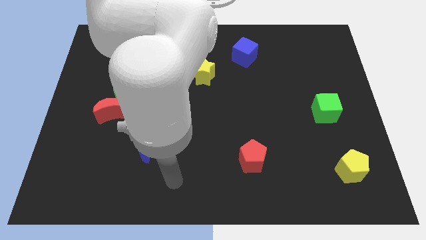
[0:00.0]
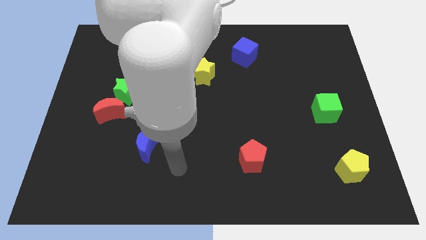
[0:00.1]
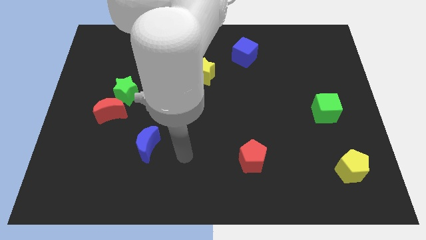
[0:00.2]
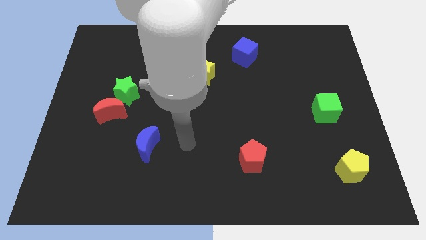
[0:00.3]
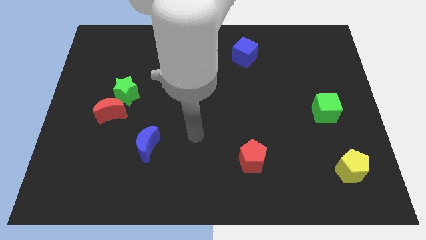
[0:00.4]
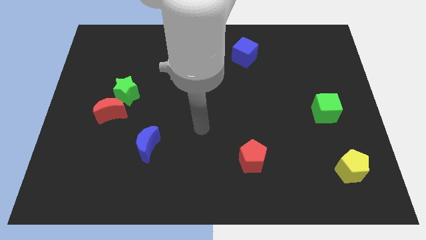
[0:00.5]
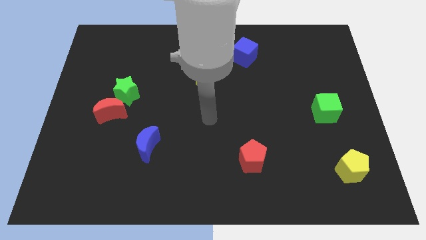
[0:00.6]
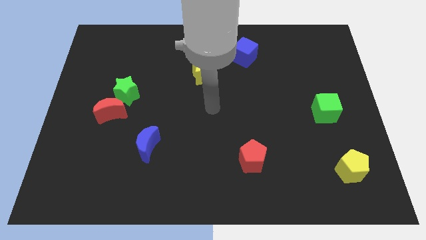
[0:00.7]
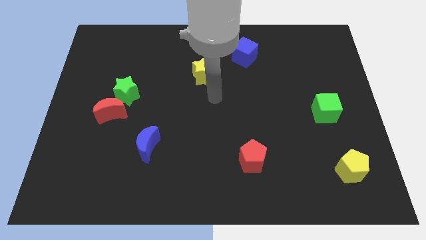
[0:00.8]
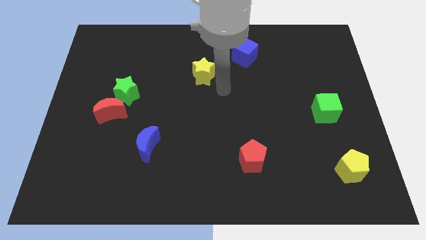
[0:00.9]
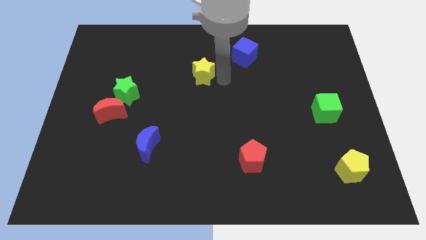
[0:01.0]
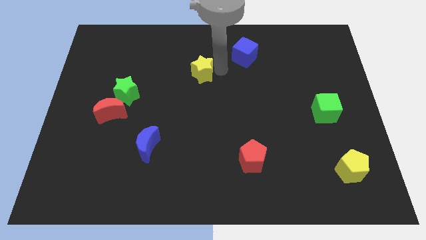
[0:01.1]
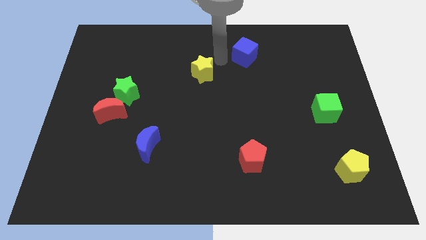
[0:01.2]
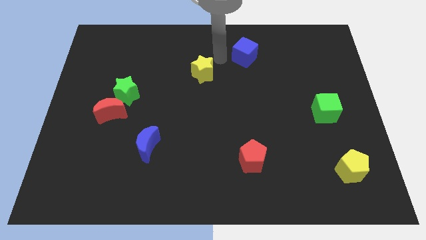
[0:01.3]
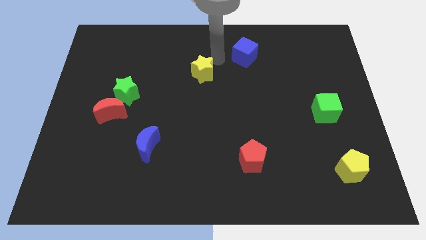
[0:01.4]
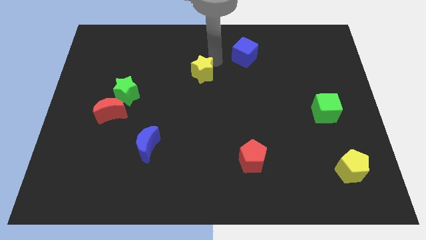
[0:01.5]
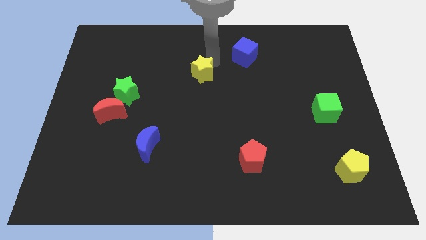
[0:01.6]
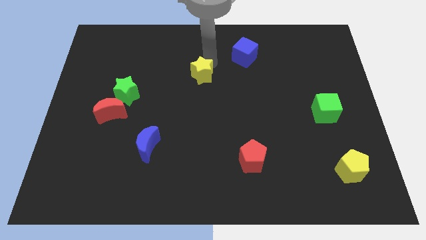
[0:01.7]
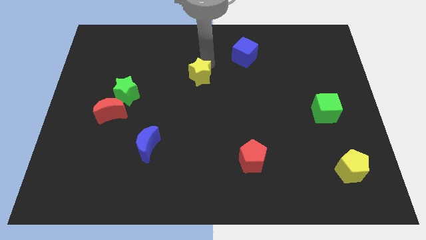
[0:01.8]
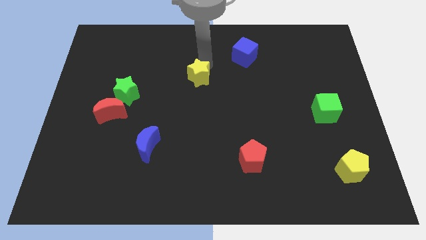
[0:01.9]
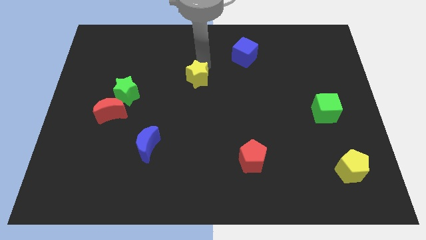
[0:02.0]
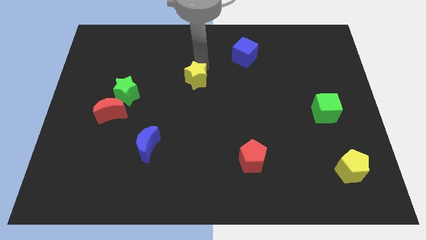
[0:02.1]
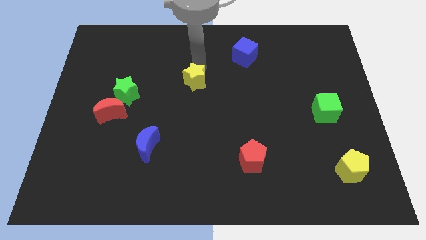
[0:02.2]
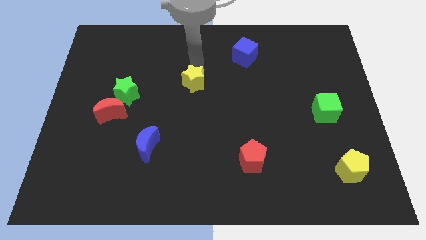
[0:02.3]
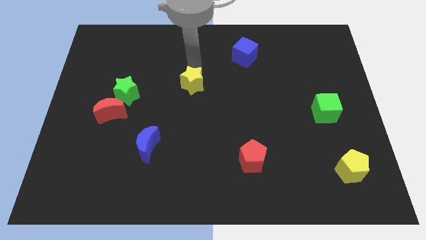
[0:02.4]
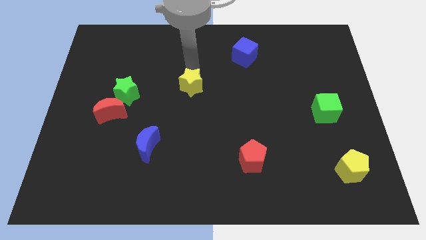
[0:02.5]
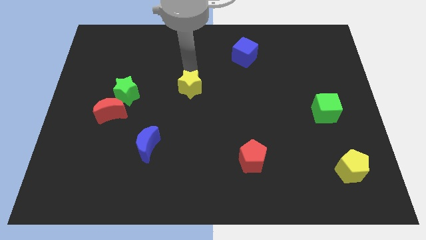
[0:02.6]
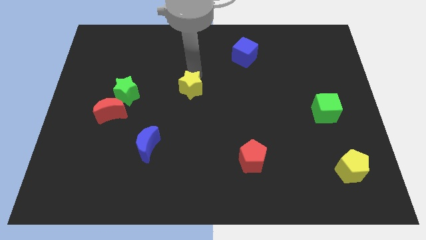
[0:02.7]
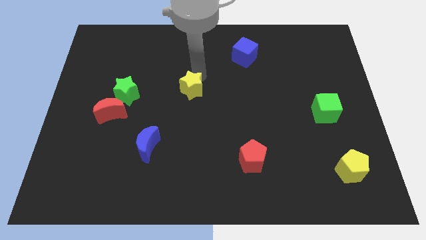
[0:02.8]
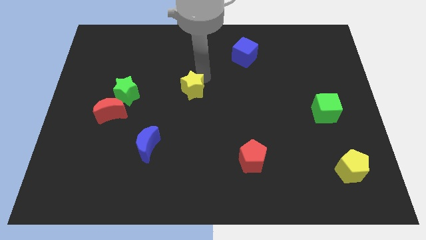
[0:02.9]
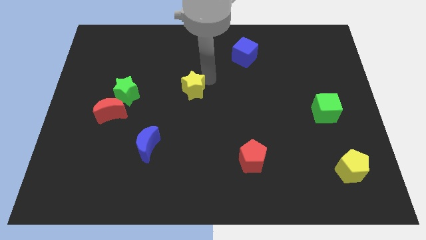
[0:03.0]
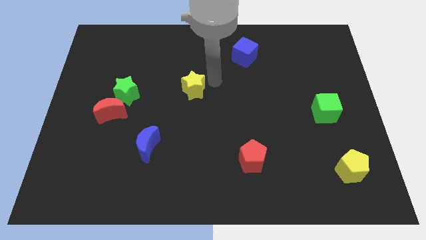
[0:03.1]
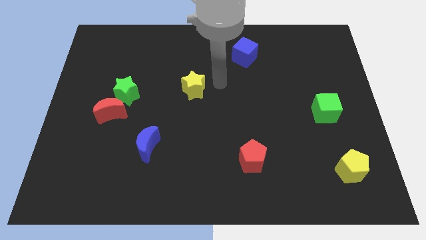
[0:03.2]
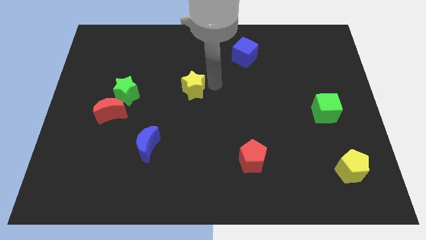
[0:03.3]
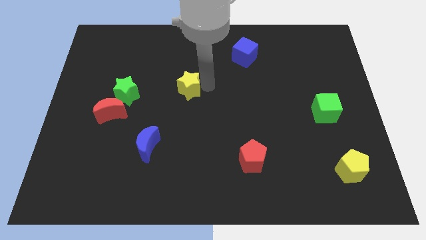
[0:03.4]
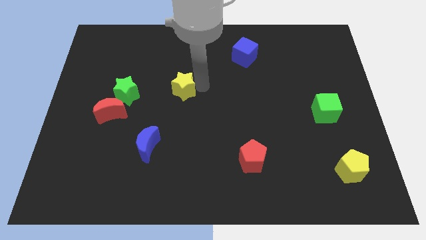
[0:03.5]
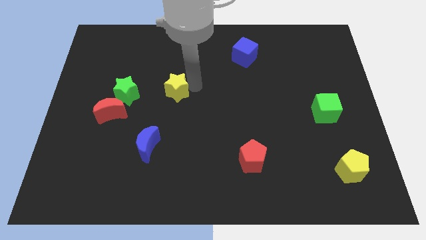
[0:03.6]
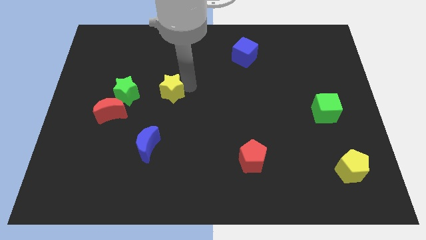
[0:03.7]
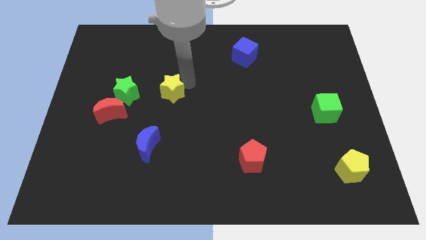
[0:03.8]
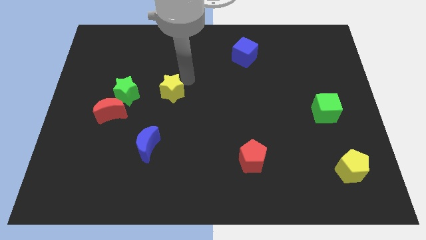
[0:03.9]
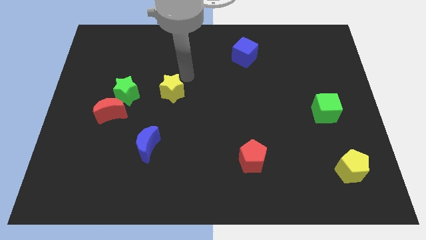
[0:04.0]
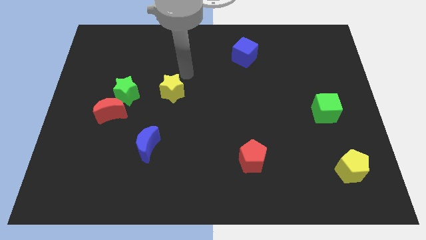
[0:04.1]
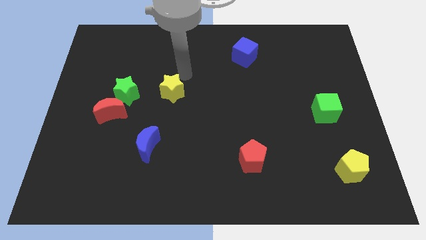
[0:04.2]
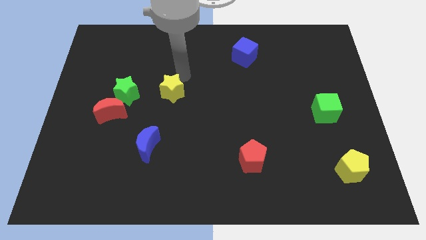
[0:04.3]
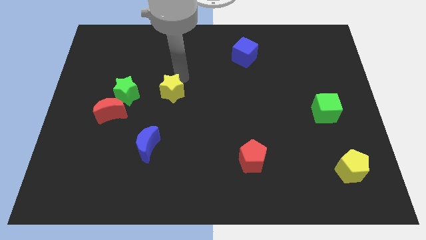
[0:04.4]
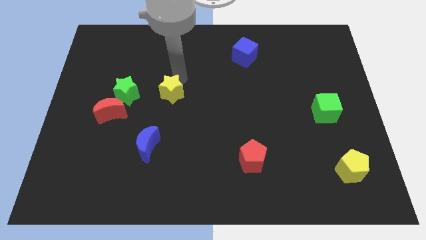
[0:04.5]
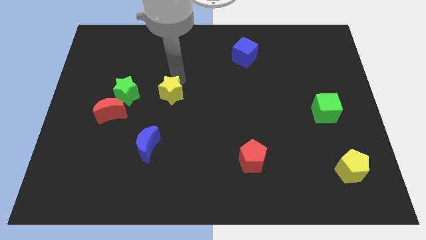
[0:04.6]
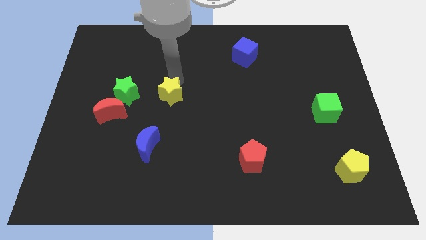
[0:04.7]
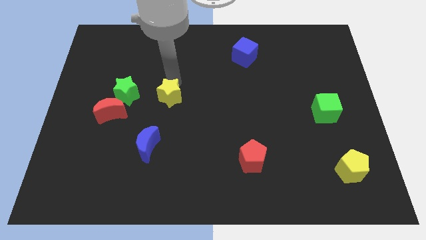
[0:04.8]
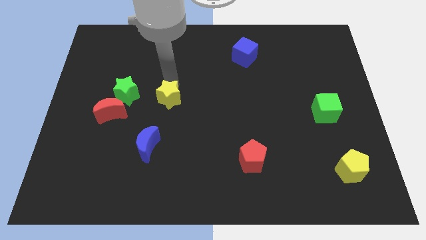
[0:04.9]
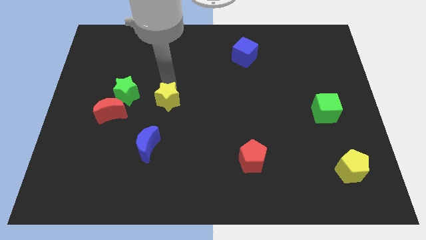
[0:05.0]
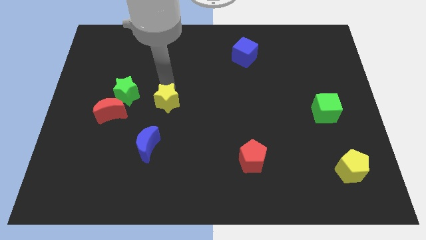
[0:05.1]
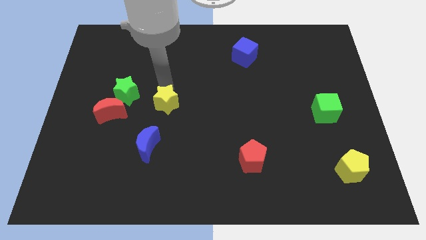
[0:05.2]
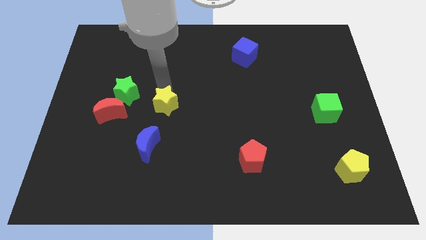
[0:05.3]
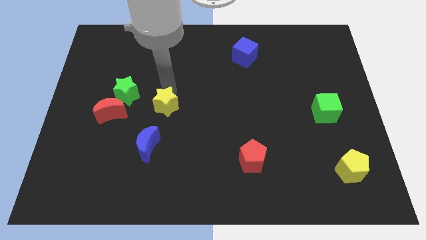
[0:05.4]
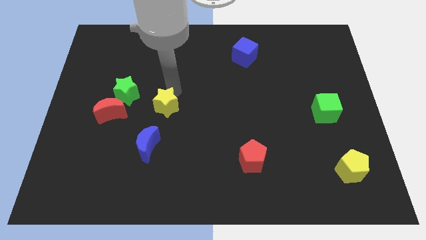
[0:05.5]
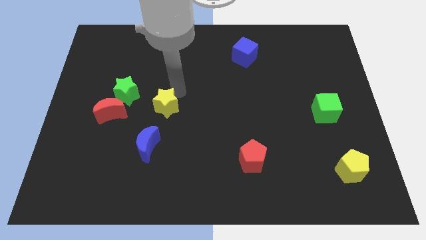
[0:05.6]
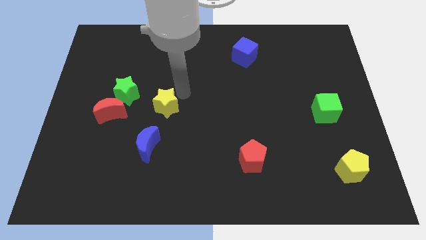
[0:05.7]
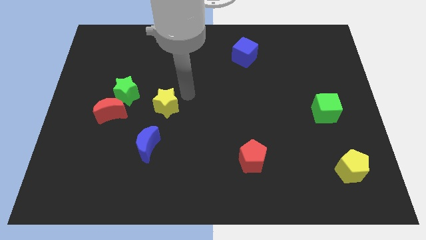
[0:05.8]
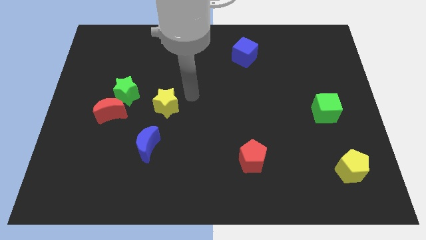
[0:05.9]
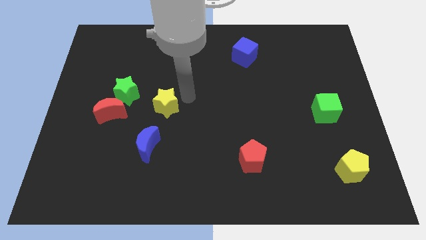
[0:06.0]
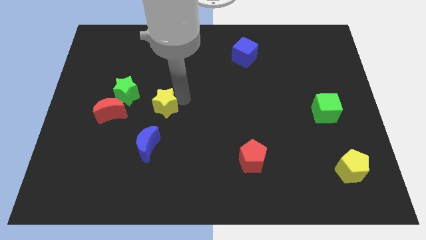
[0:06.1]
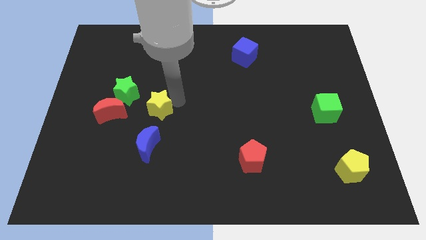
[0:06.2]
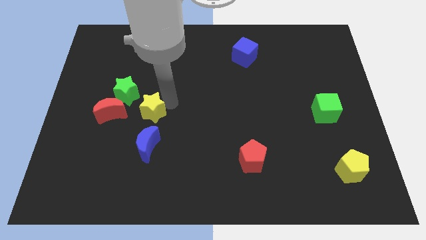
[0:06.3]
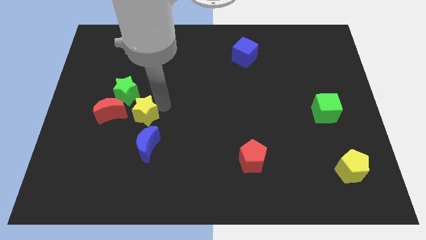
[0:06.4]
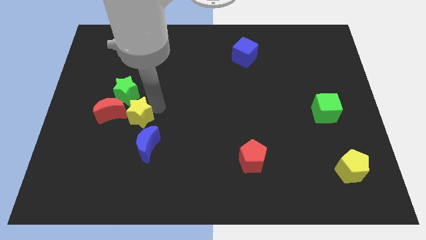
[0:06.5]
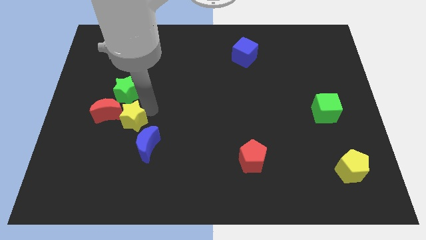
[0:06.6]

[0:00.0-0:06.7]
push the yellow star downwards and left diagonally

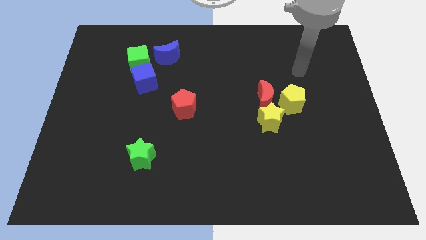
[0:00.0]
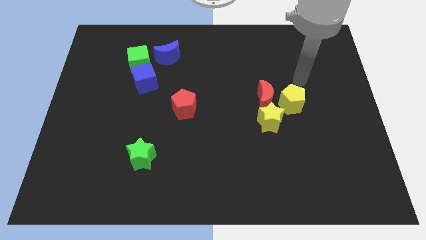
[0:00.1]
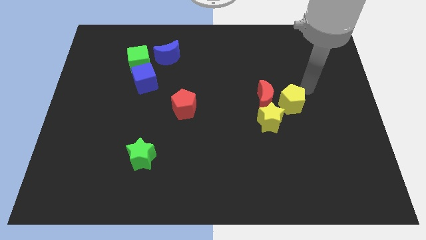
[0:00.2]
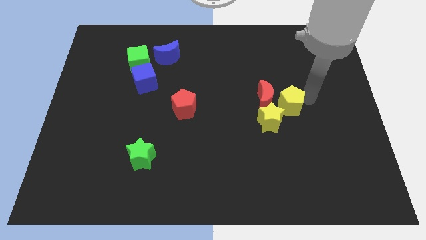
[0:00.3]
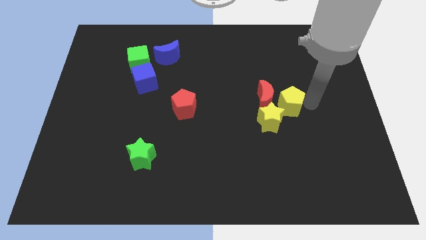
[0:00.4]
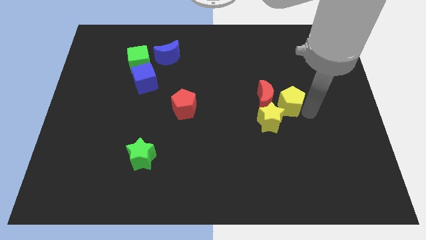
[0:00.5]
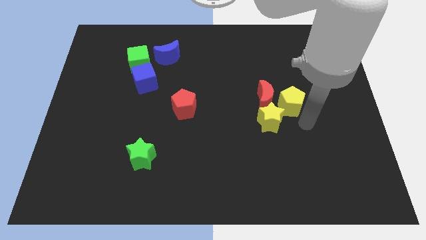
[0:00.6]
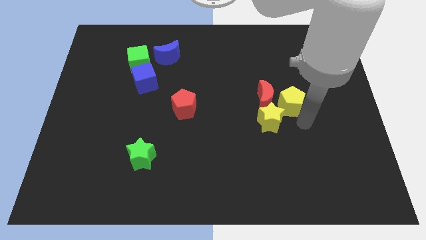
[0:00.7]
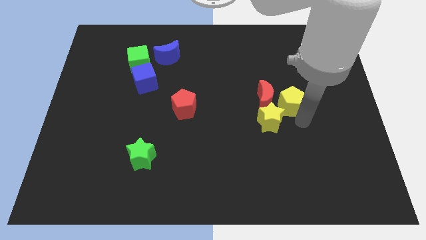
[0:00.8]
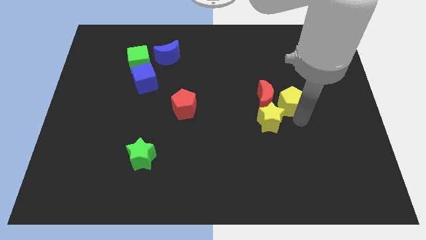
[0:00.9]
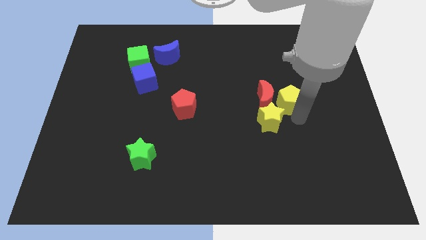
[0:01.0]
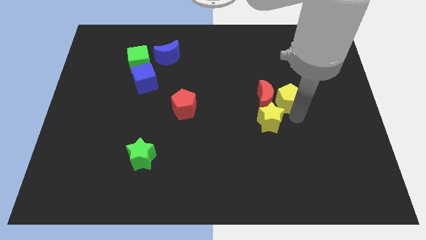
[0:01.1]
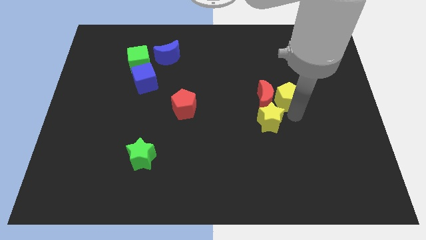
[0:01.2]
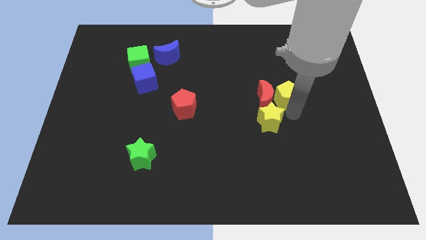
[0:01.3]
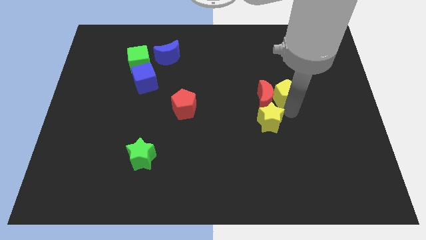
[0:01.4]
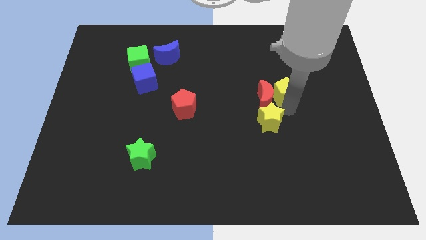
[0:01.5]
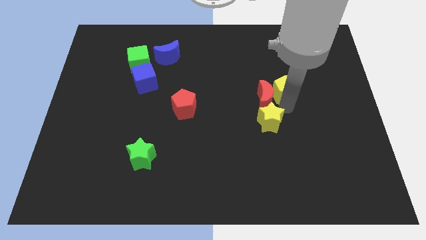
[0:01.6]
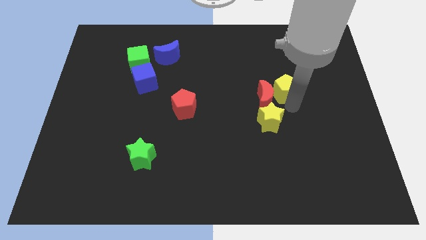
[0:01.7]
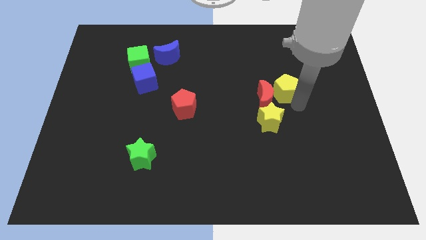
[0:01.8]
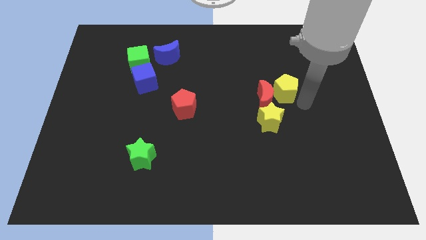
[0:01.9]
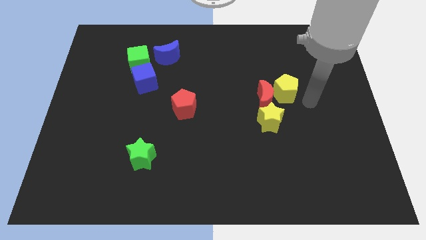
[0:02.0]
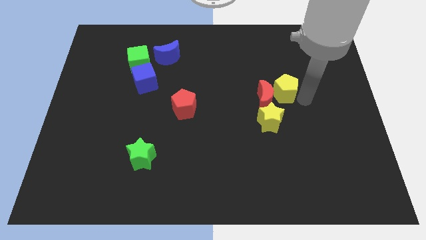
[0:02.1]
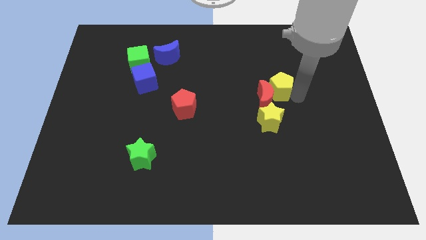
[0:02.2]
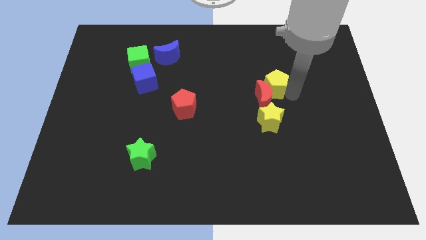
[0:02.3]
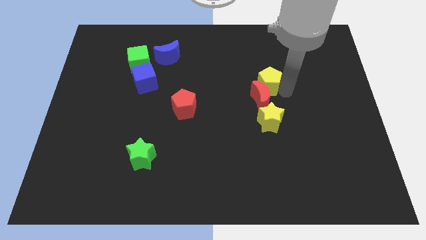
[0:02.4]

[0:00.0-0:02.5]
slightly slide the yellow pentagon upwards and to the left diagonally
